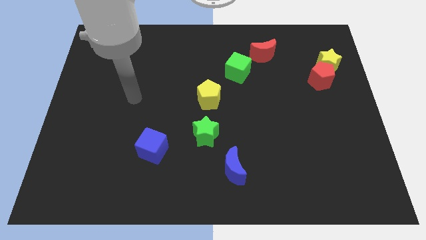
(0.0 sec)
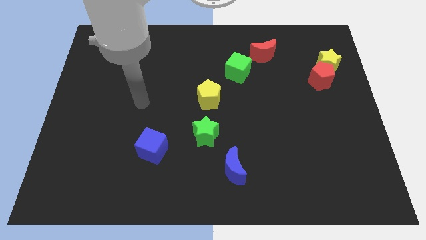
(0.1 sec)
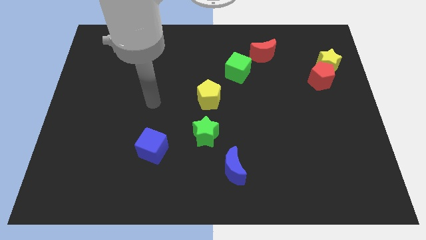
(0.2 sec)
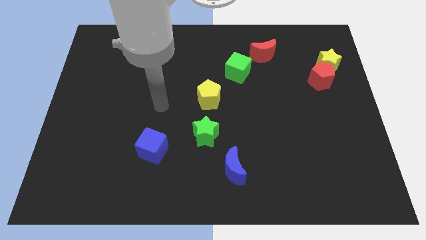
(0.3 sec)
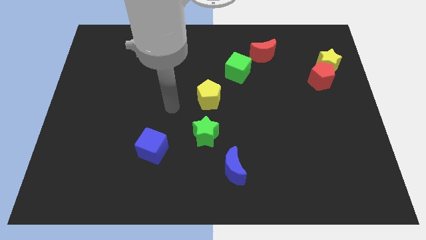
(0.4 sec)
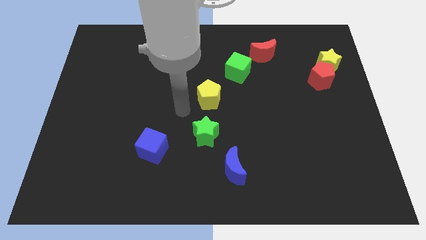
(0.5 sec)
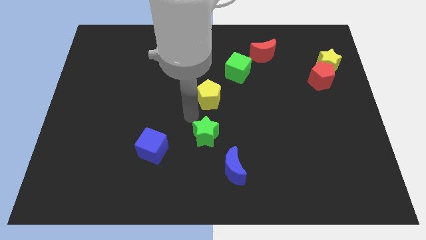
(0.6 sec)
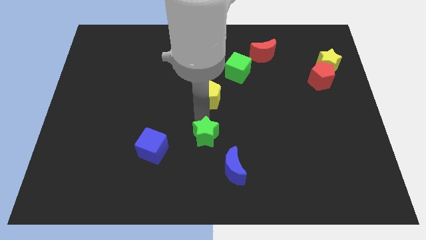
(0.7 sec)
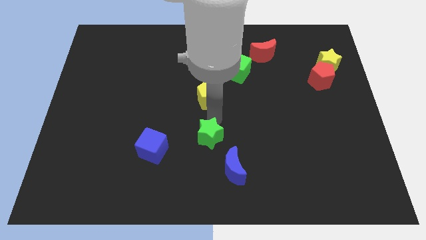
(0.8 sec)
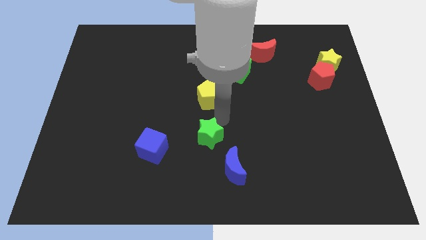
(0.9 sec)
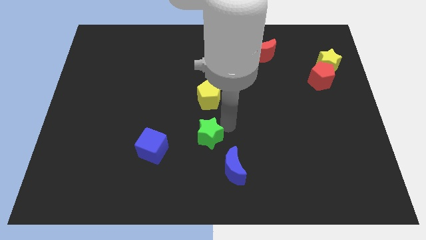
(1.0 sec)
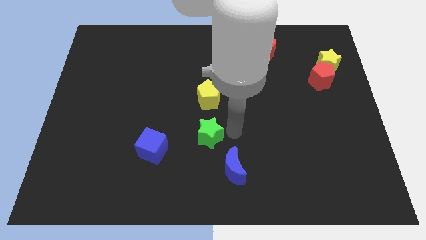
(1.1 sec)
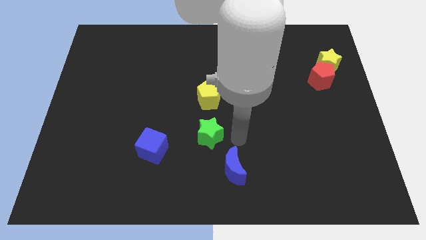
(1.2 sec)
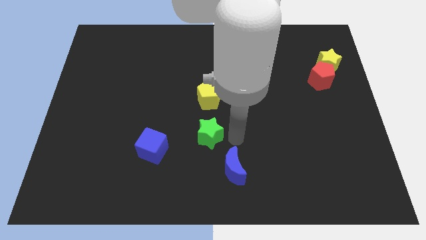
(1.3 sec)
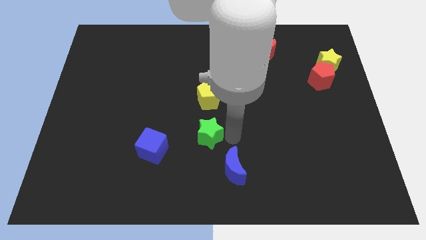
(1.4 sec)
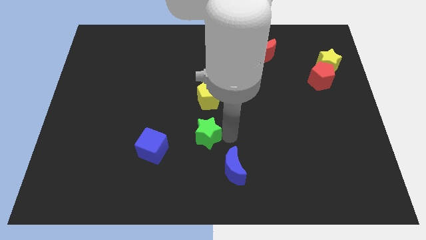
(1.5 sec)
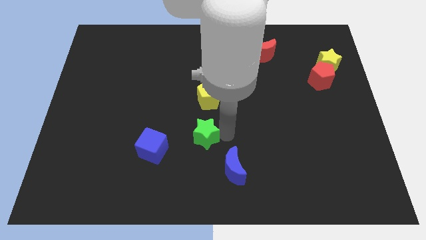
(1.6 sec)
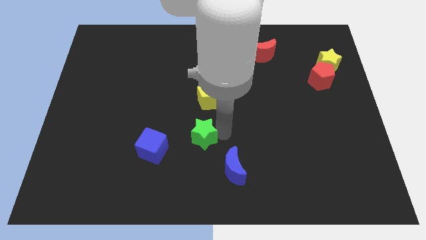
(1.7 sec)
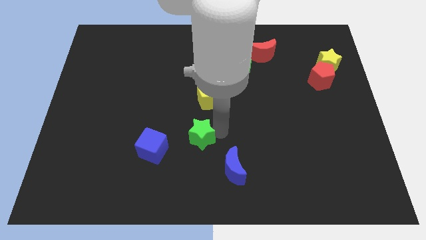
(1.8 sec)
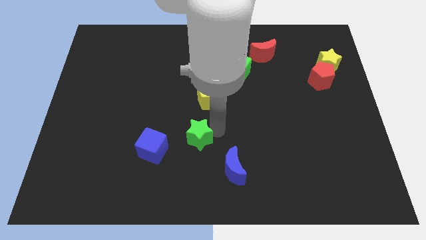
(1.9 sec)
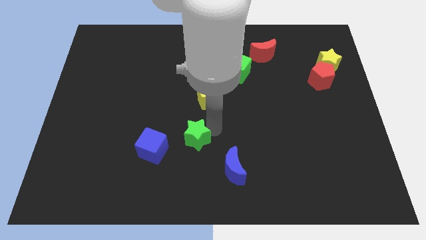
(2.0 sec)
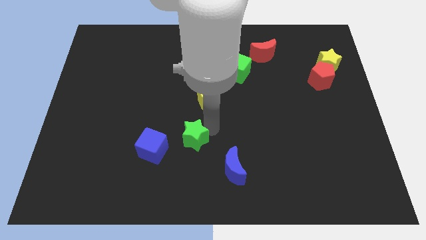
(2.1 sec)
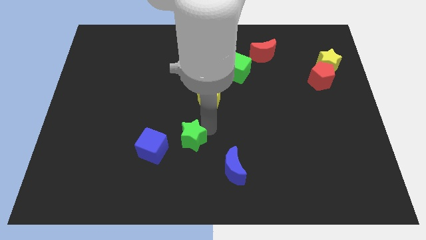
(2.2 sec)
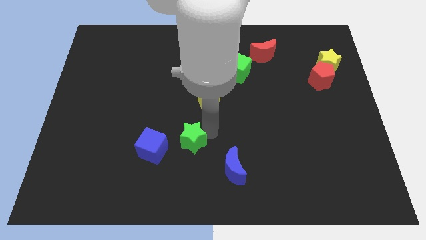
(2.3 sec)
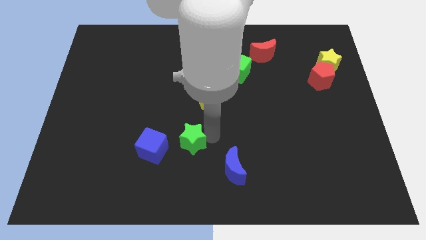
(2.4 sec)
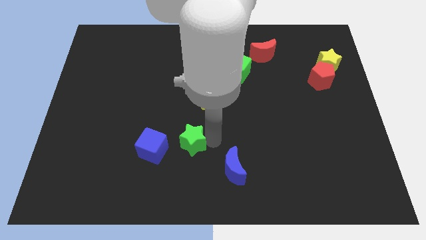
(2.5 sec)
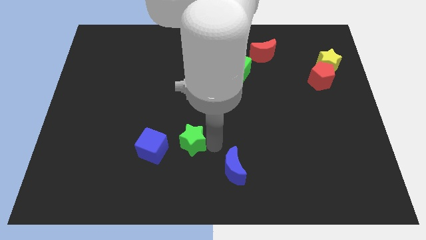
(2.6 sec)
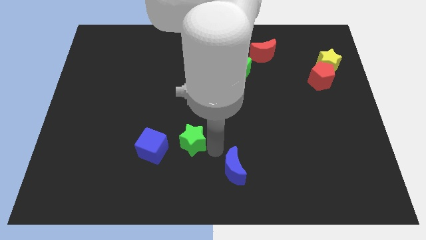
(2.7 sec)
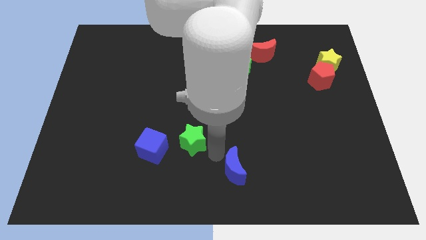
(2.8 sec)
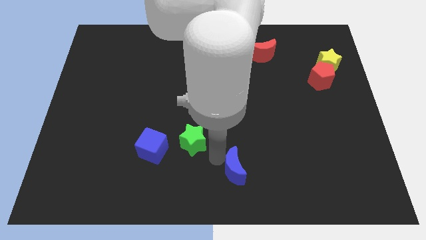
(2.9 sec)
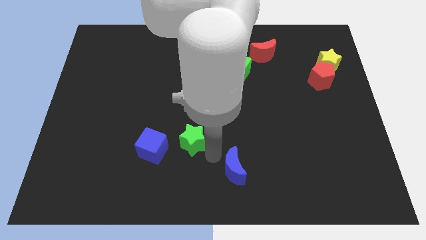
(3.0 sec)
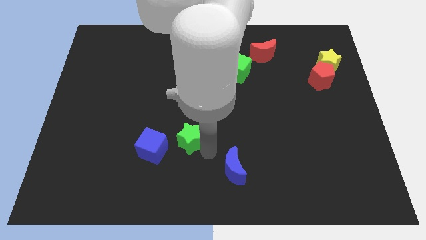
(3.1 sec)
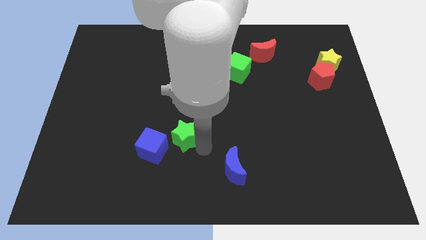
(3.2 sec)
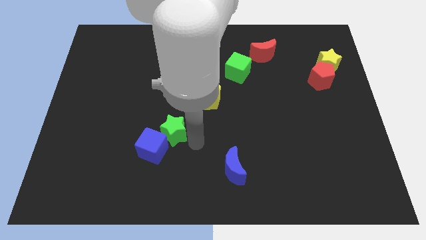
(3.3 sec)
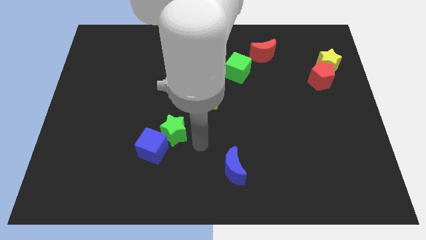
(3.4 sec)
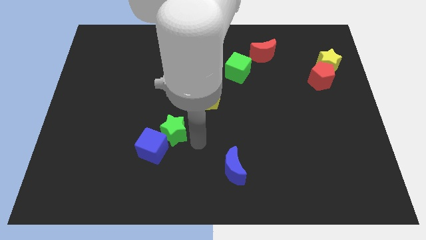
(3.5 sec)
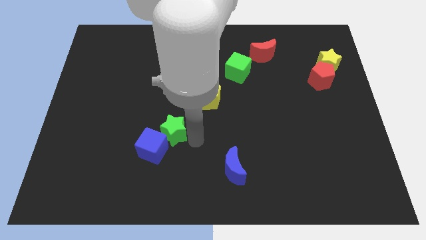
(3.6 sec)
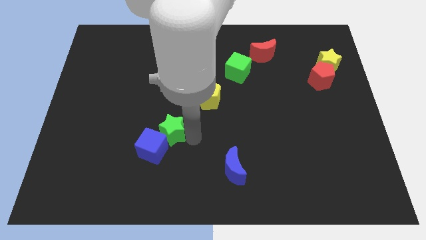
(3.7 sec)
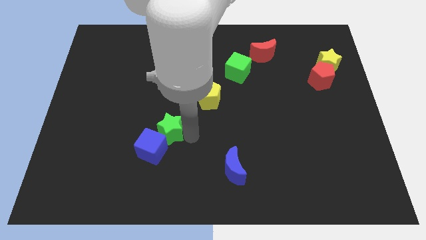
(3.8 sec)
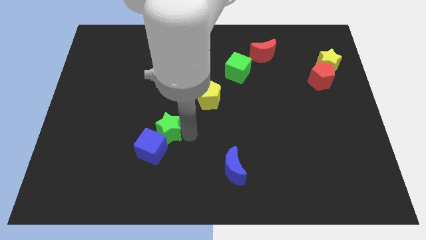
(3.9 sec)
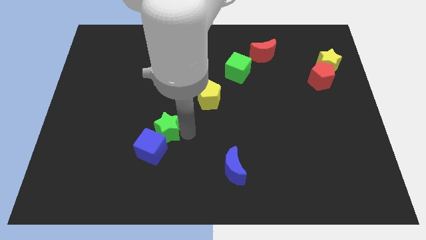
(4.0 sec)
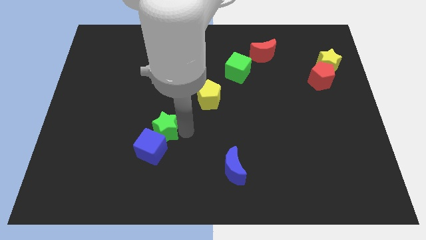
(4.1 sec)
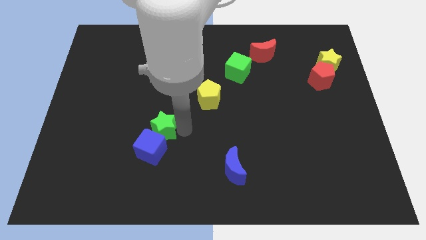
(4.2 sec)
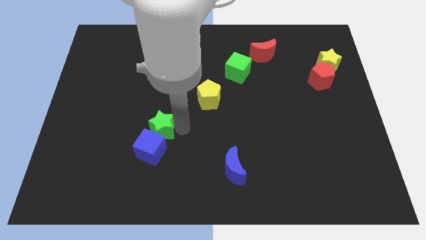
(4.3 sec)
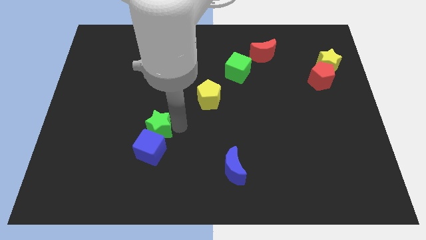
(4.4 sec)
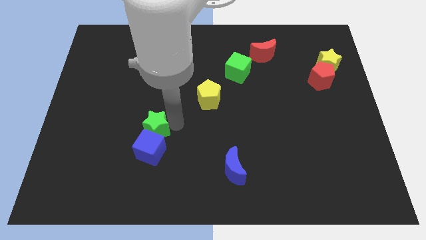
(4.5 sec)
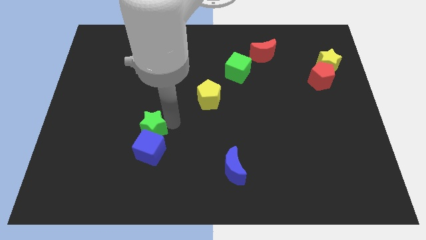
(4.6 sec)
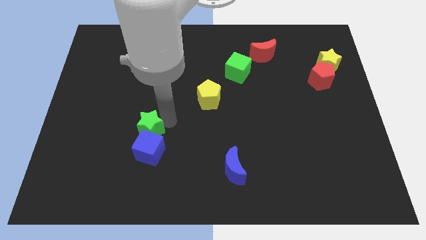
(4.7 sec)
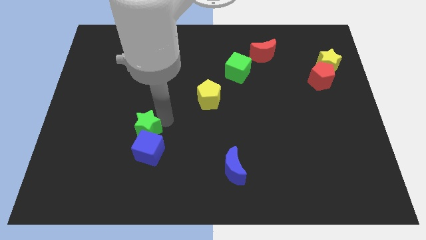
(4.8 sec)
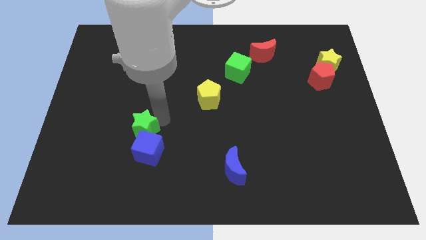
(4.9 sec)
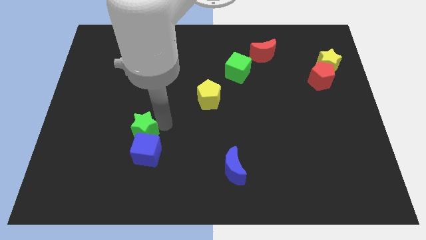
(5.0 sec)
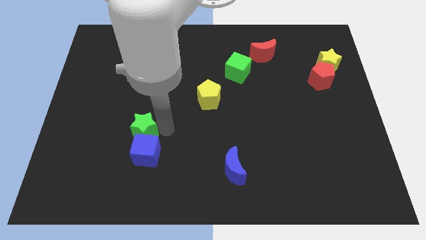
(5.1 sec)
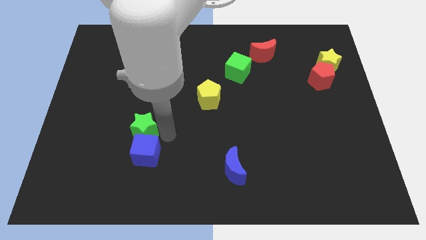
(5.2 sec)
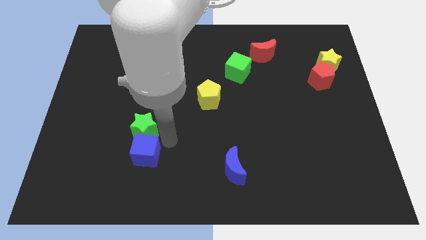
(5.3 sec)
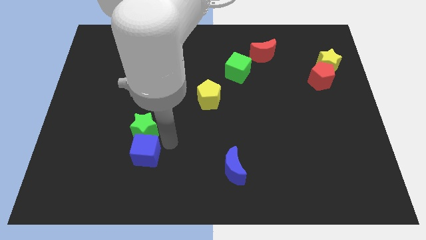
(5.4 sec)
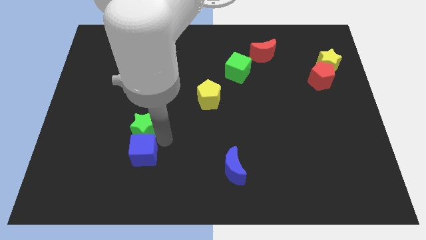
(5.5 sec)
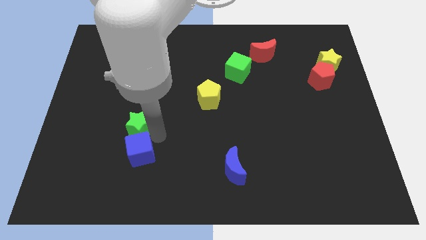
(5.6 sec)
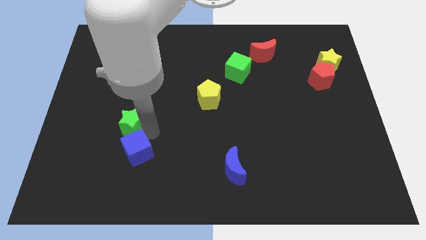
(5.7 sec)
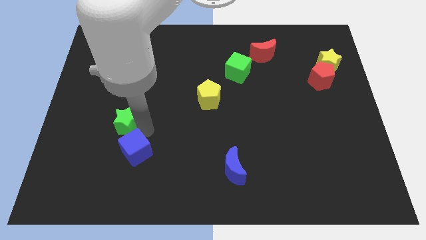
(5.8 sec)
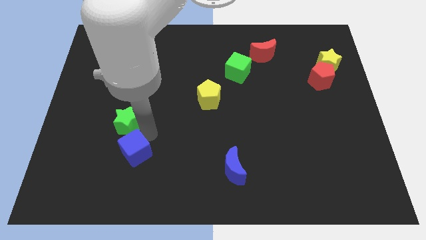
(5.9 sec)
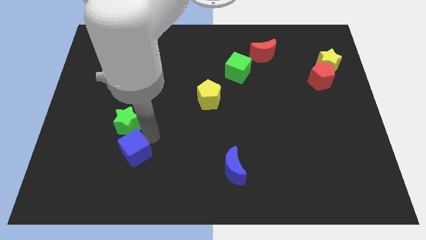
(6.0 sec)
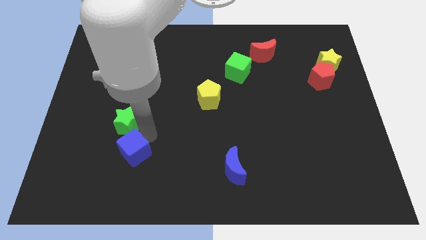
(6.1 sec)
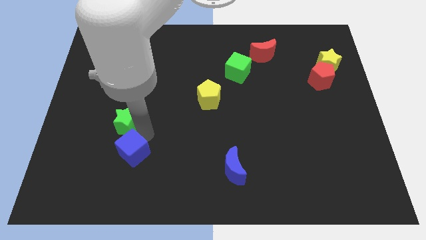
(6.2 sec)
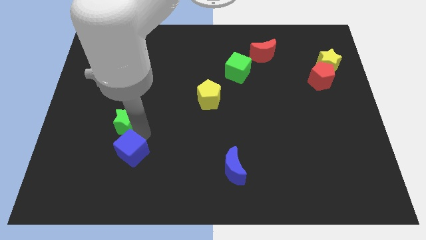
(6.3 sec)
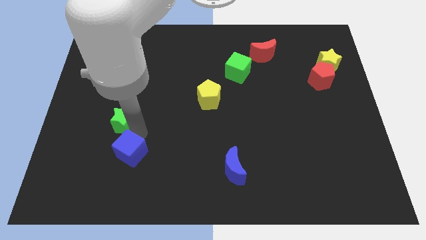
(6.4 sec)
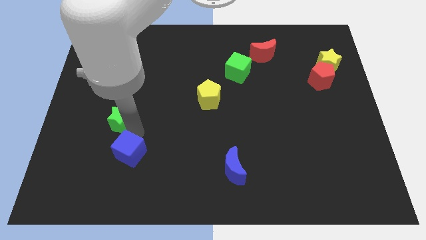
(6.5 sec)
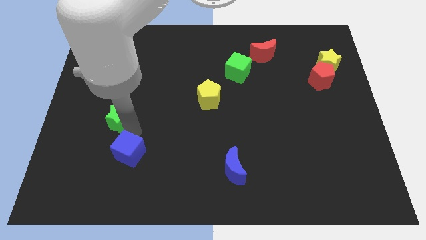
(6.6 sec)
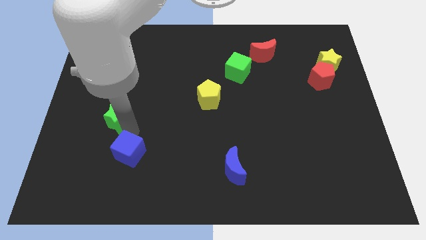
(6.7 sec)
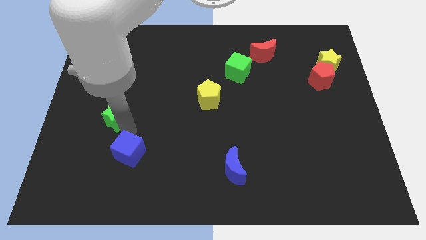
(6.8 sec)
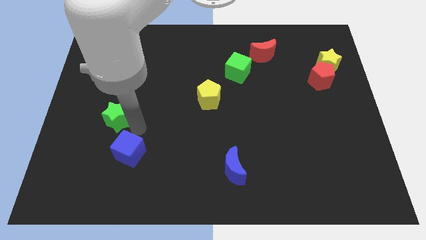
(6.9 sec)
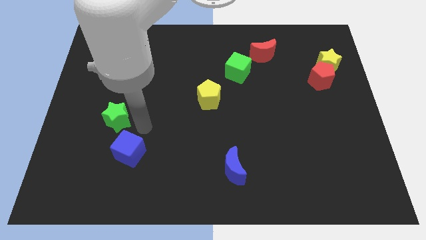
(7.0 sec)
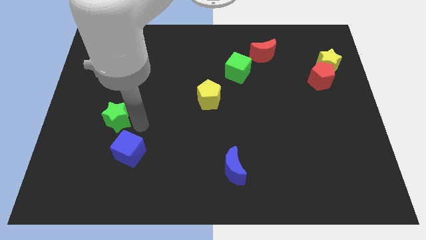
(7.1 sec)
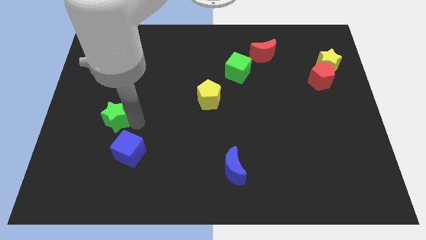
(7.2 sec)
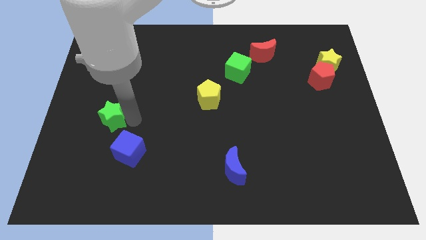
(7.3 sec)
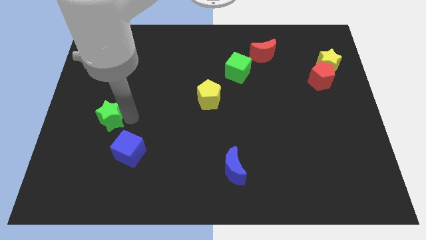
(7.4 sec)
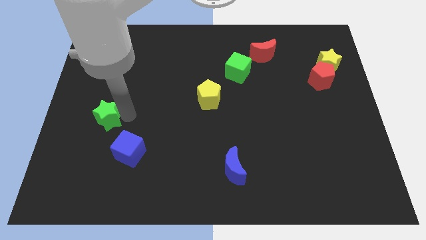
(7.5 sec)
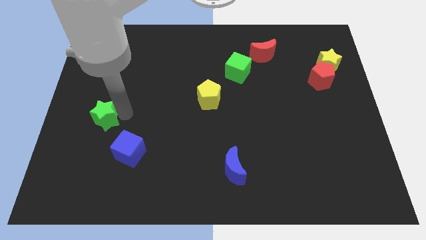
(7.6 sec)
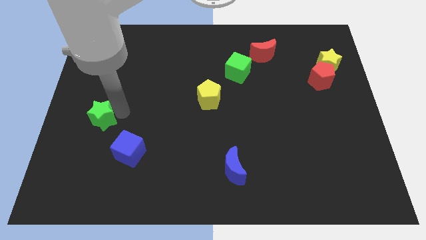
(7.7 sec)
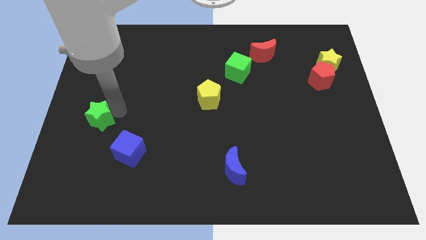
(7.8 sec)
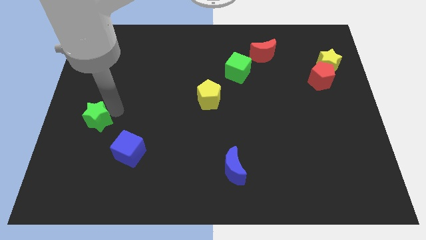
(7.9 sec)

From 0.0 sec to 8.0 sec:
move the green star to the center left
